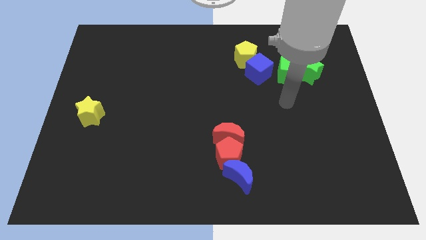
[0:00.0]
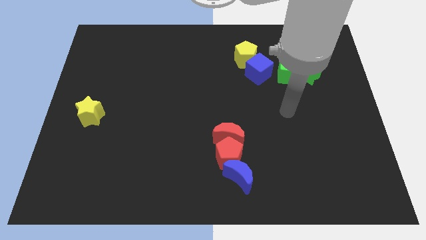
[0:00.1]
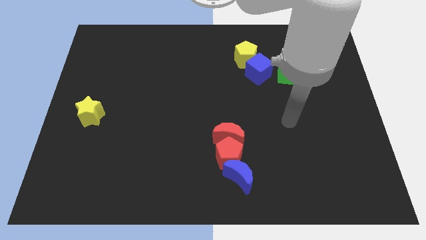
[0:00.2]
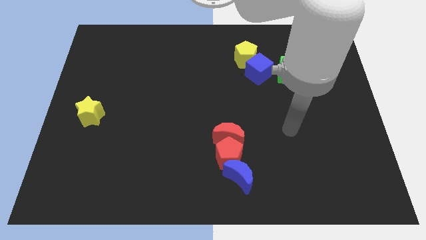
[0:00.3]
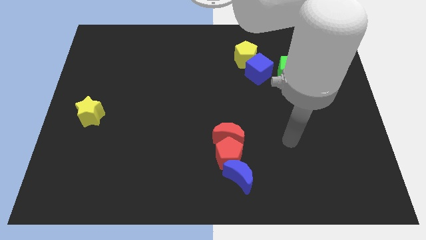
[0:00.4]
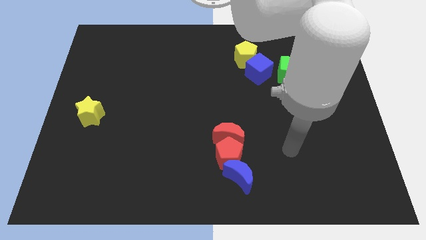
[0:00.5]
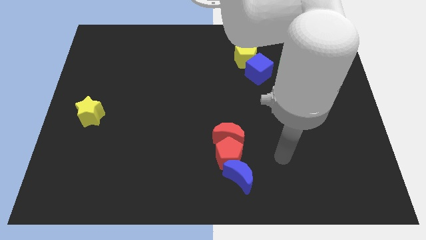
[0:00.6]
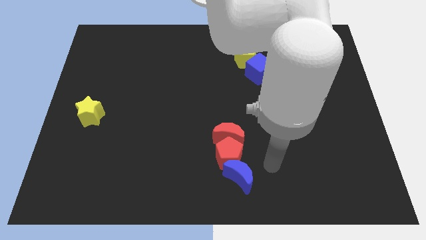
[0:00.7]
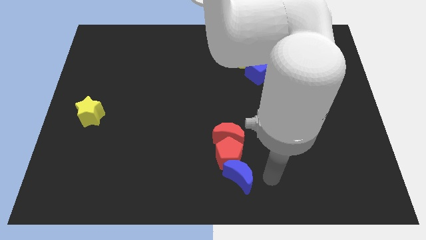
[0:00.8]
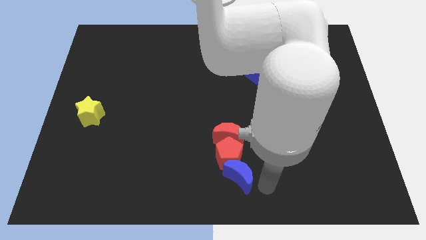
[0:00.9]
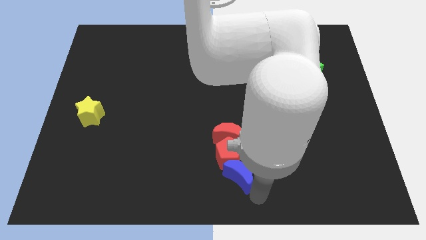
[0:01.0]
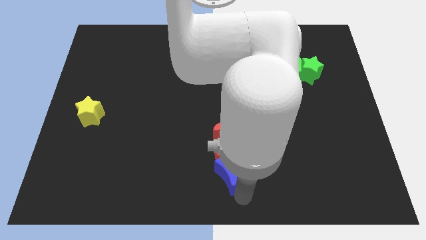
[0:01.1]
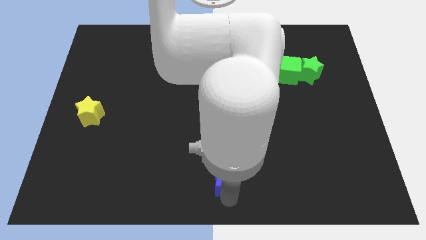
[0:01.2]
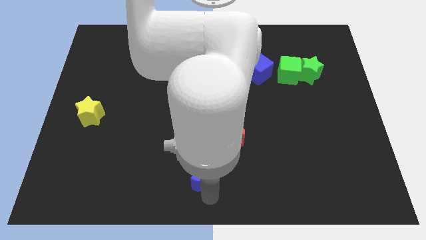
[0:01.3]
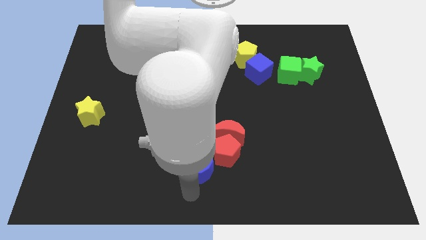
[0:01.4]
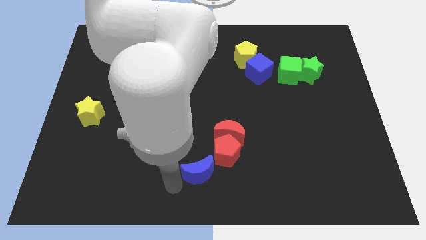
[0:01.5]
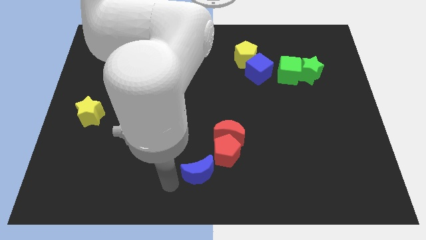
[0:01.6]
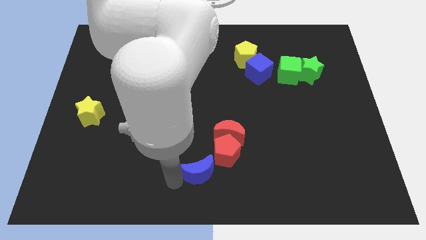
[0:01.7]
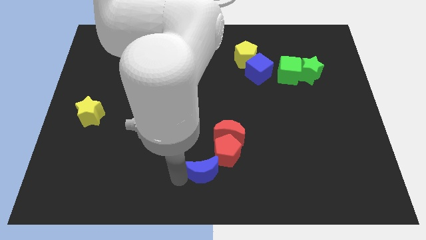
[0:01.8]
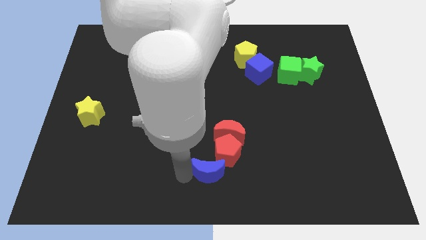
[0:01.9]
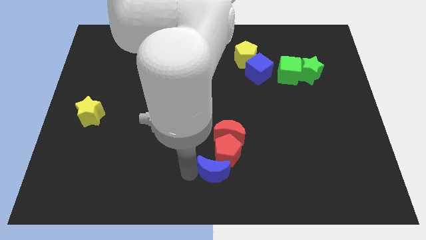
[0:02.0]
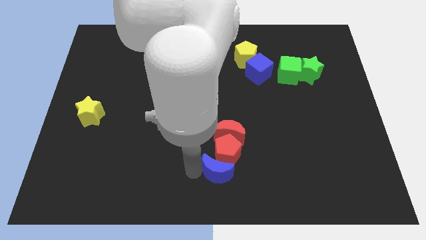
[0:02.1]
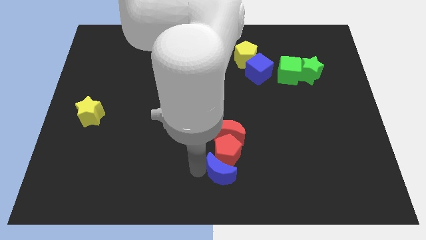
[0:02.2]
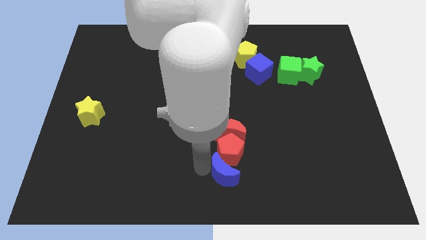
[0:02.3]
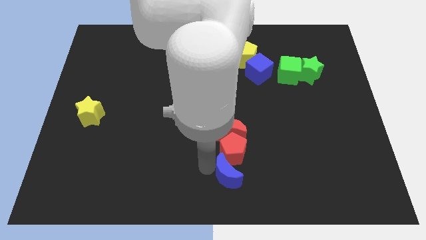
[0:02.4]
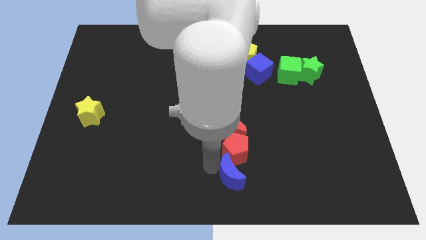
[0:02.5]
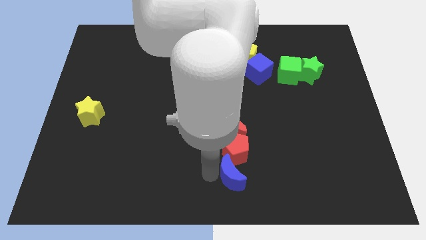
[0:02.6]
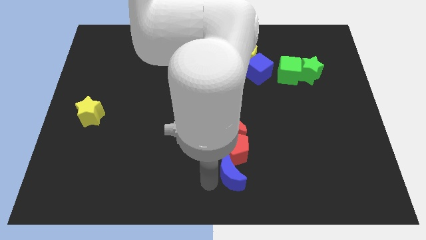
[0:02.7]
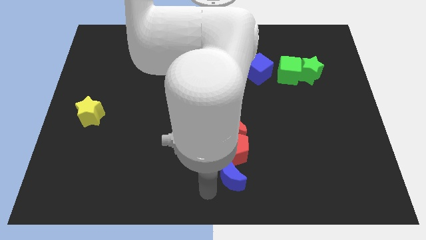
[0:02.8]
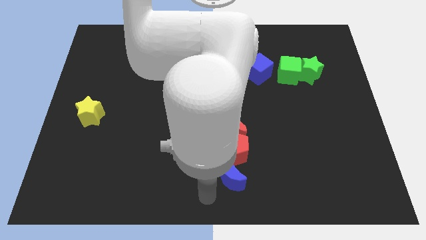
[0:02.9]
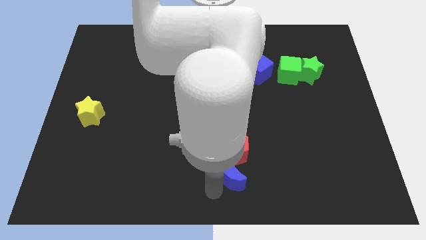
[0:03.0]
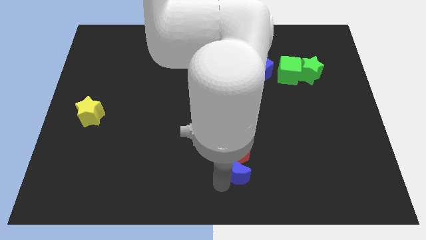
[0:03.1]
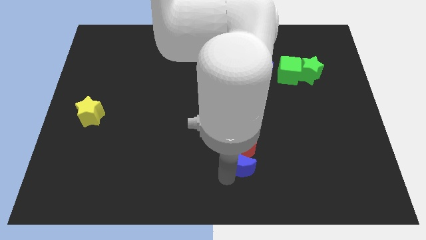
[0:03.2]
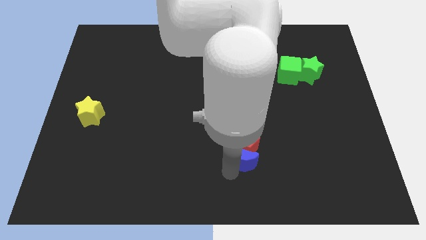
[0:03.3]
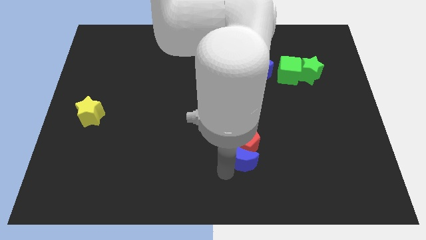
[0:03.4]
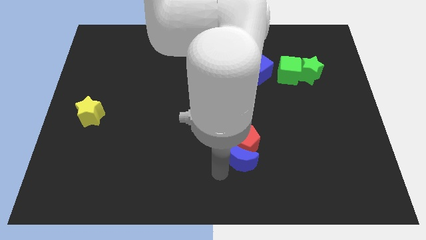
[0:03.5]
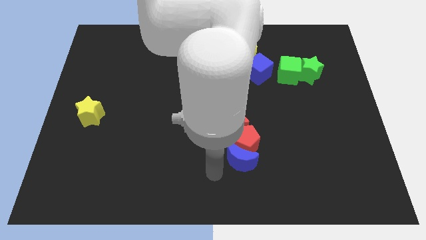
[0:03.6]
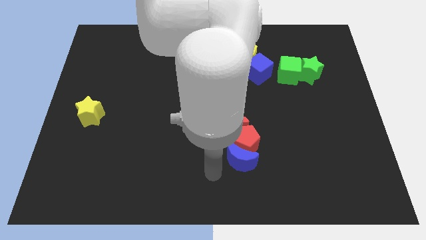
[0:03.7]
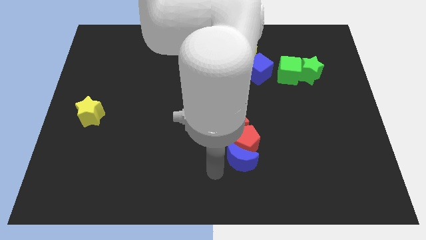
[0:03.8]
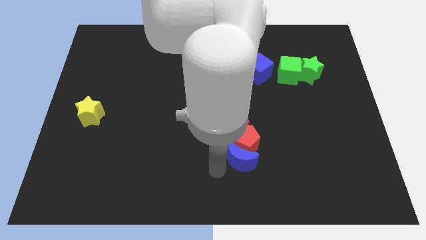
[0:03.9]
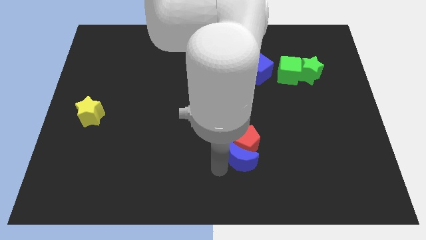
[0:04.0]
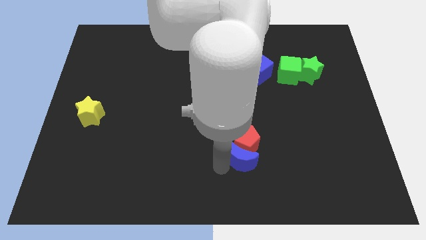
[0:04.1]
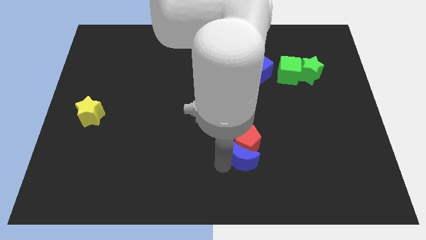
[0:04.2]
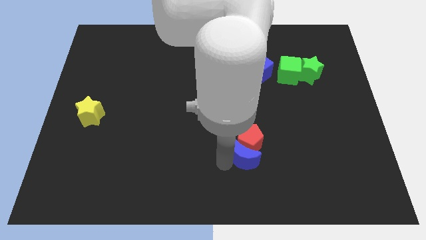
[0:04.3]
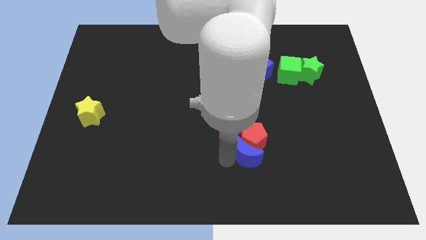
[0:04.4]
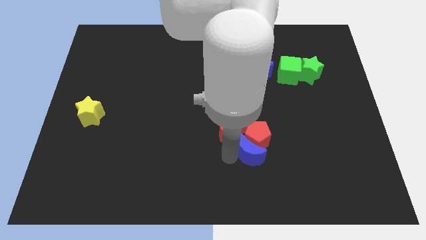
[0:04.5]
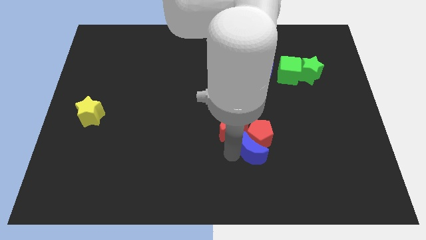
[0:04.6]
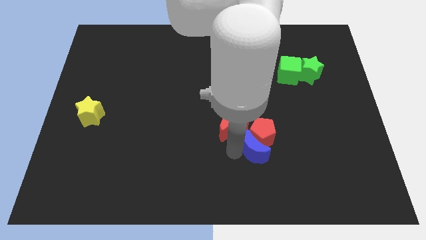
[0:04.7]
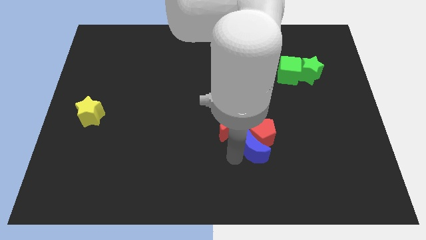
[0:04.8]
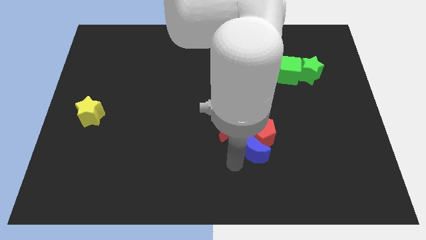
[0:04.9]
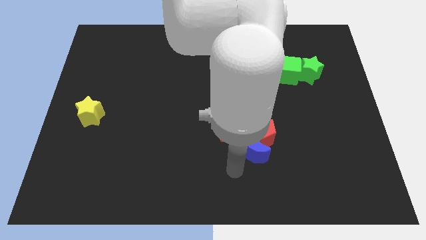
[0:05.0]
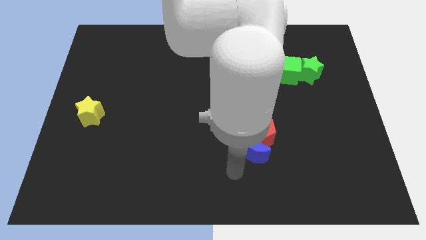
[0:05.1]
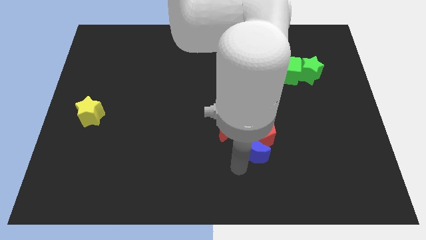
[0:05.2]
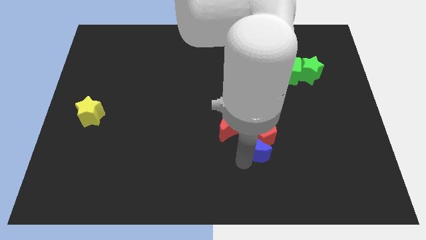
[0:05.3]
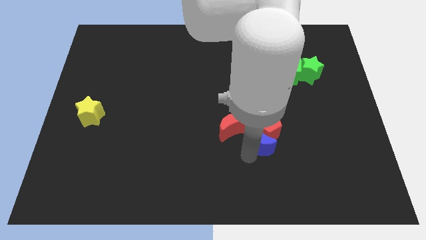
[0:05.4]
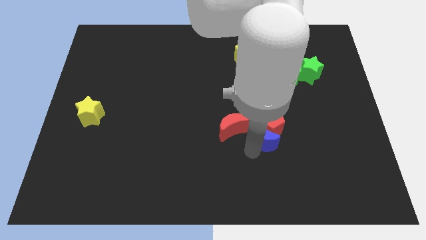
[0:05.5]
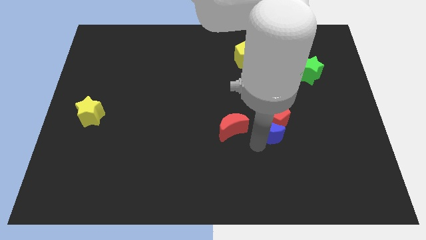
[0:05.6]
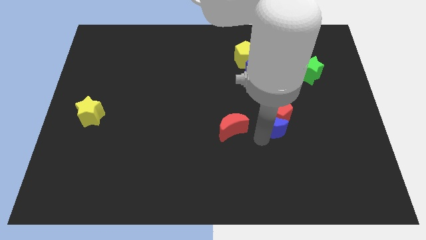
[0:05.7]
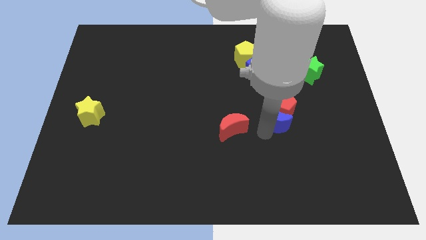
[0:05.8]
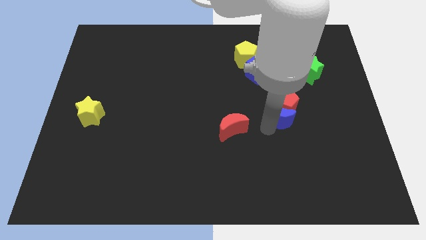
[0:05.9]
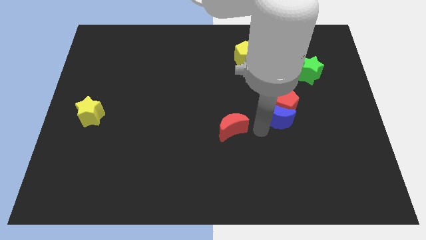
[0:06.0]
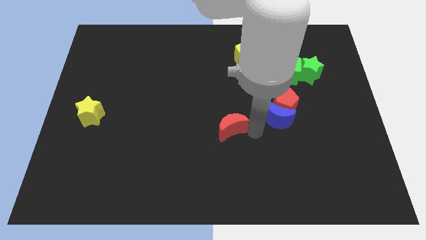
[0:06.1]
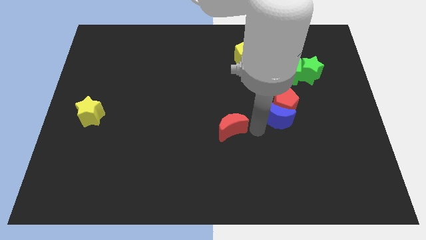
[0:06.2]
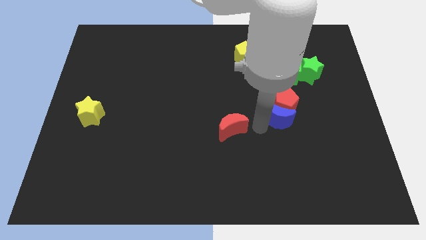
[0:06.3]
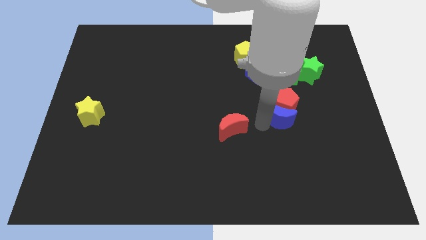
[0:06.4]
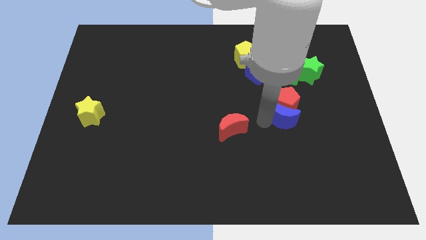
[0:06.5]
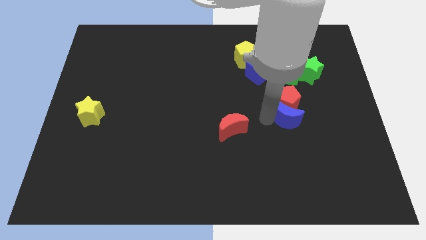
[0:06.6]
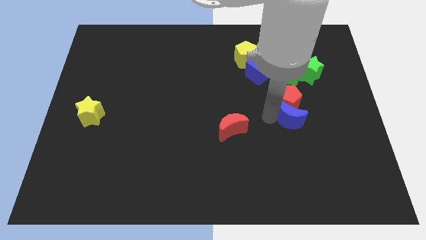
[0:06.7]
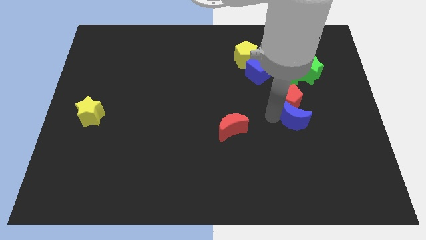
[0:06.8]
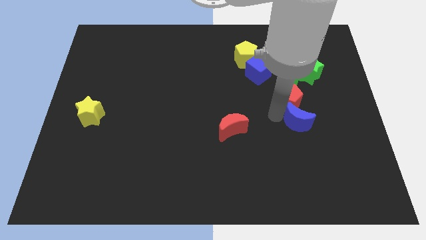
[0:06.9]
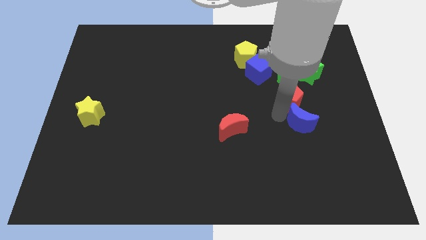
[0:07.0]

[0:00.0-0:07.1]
push the blue moon up and right

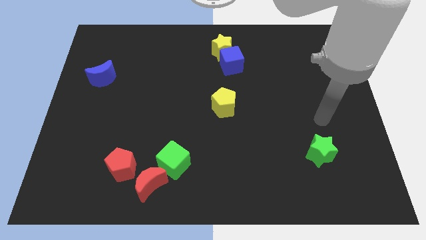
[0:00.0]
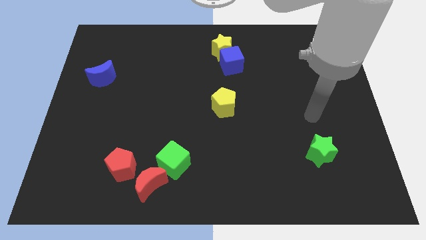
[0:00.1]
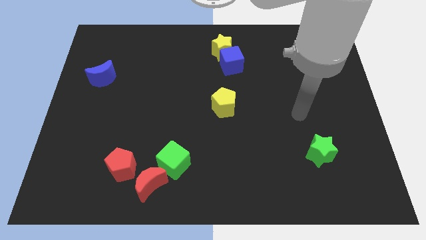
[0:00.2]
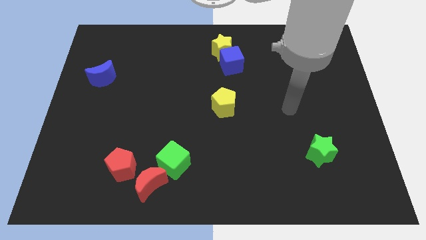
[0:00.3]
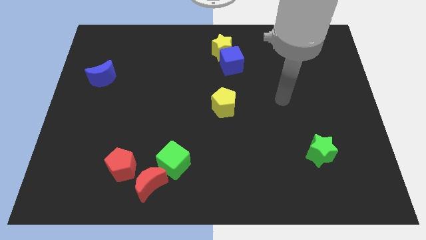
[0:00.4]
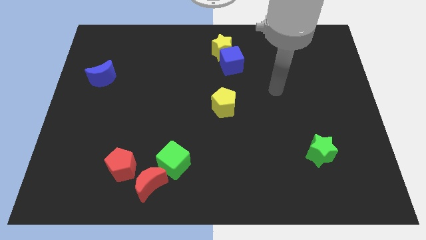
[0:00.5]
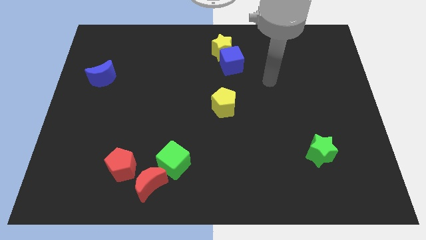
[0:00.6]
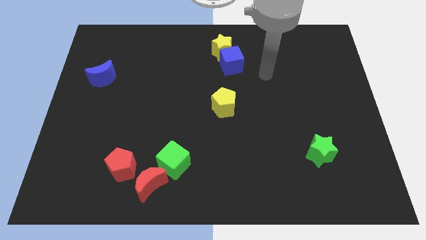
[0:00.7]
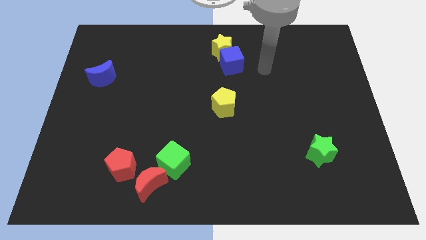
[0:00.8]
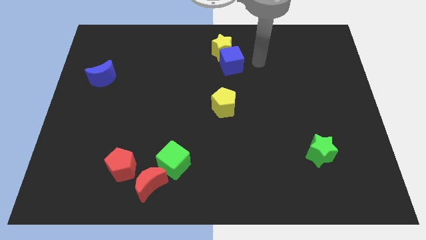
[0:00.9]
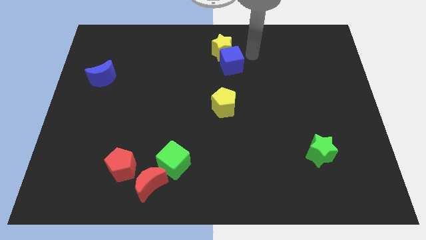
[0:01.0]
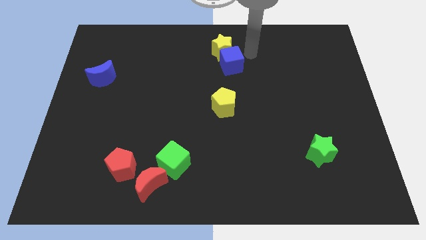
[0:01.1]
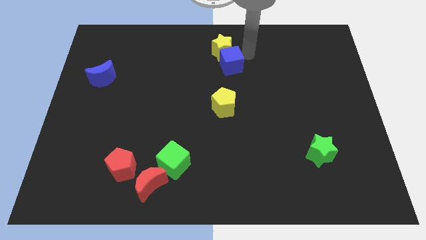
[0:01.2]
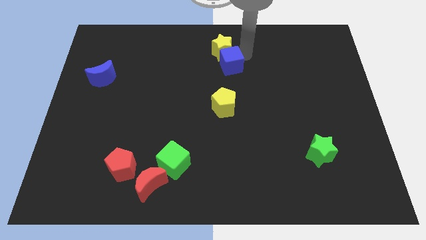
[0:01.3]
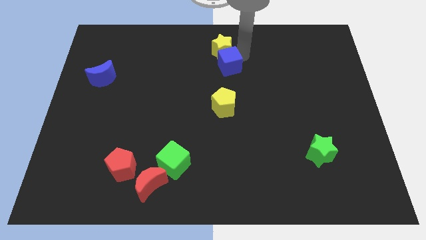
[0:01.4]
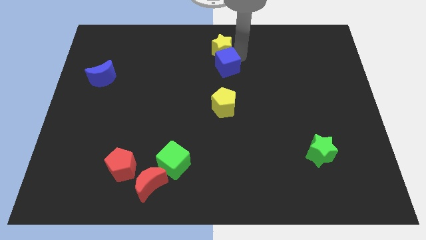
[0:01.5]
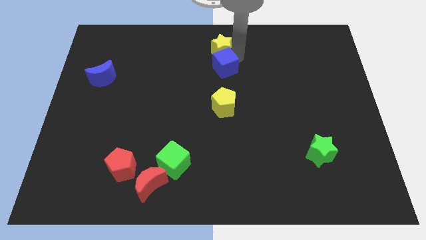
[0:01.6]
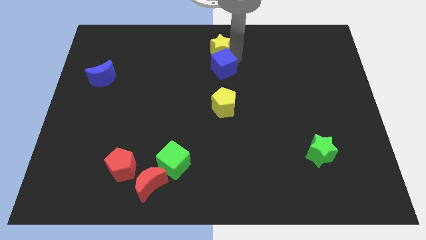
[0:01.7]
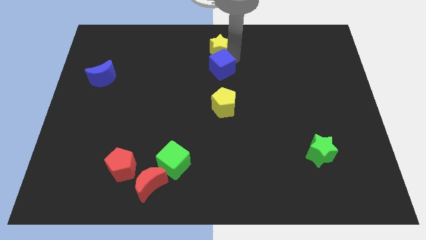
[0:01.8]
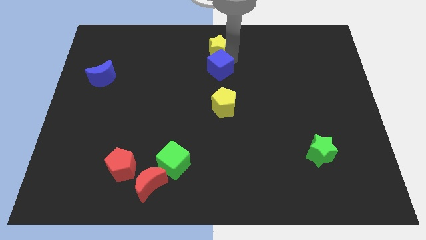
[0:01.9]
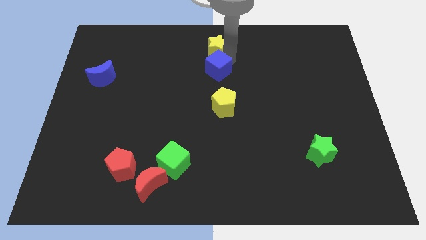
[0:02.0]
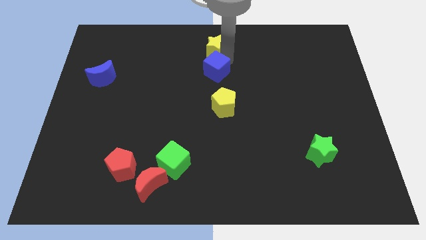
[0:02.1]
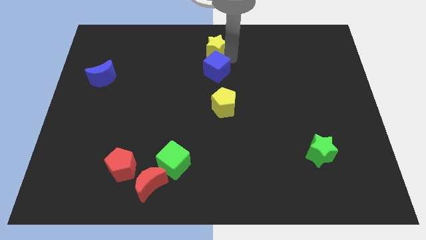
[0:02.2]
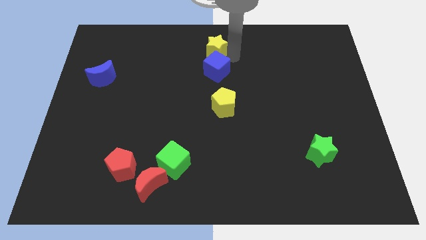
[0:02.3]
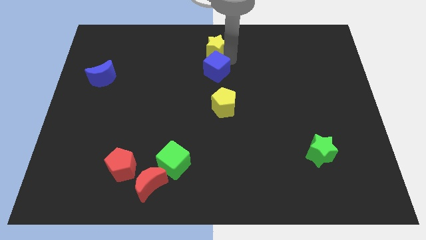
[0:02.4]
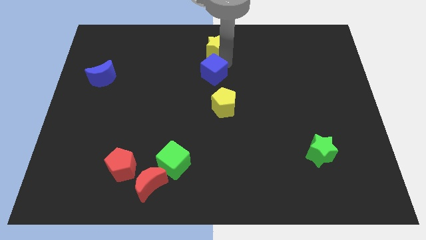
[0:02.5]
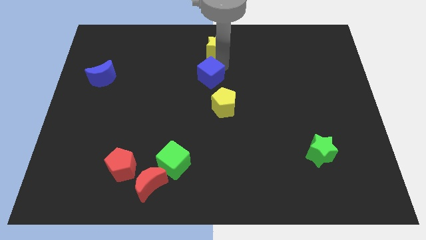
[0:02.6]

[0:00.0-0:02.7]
push the blue cube a little bit down and to the left
